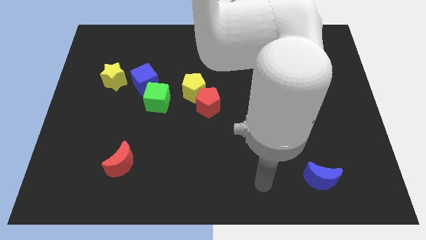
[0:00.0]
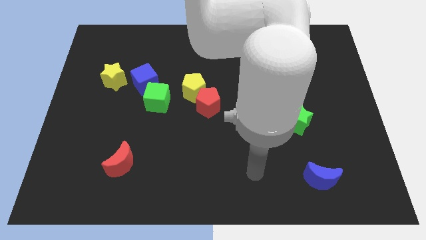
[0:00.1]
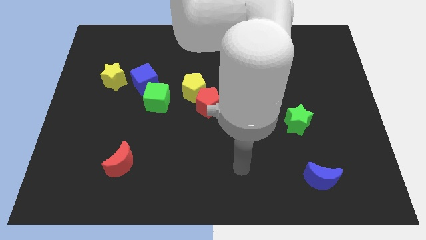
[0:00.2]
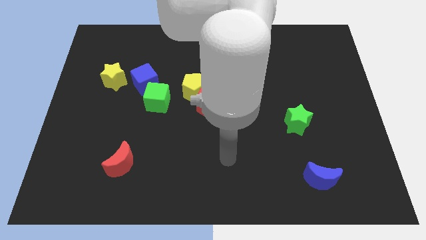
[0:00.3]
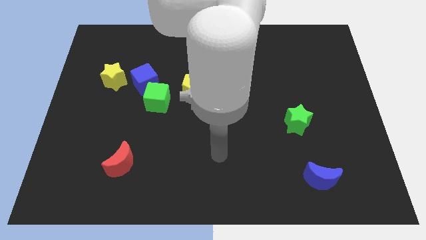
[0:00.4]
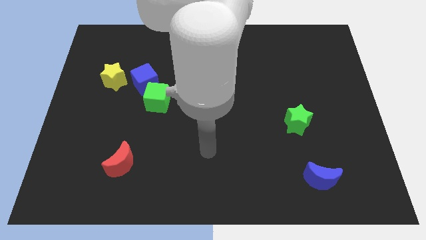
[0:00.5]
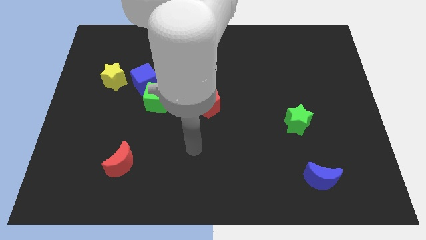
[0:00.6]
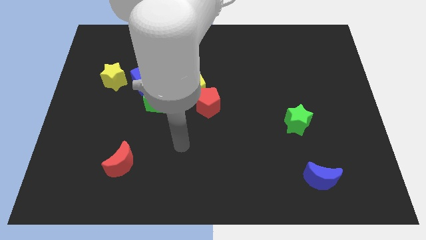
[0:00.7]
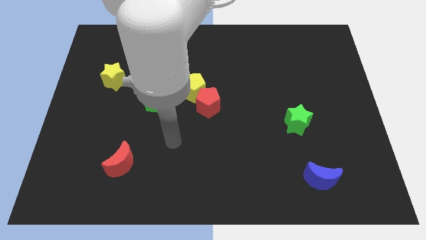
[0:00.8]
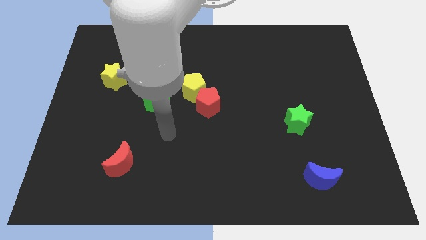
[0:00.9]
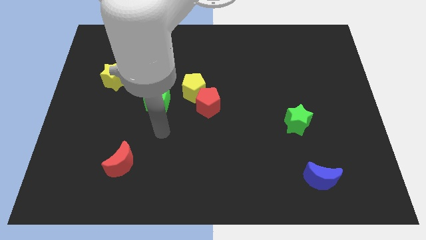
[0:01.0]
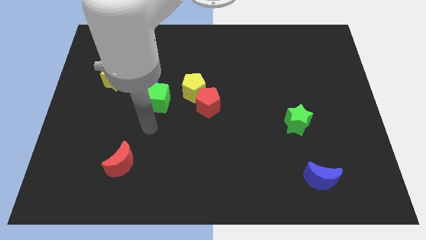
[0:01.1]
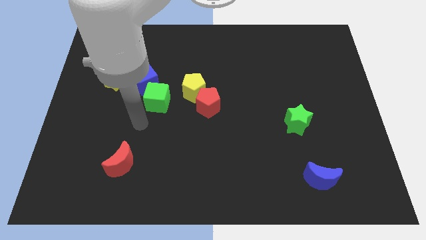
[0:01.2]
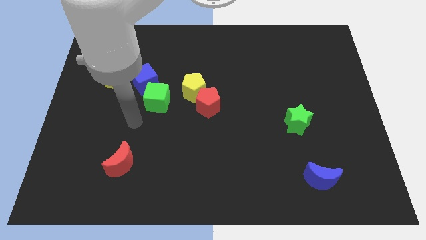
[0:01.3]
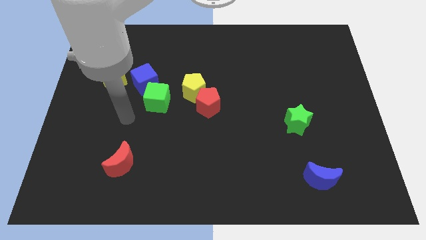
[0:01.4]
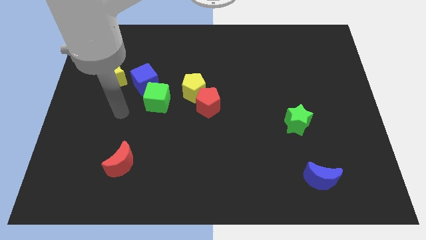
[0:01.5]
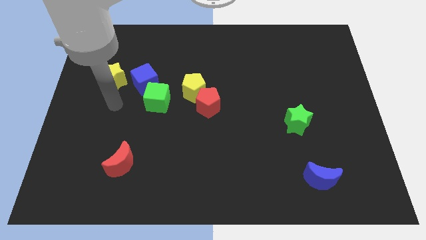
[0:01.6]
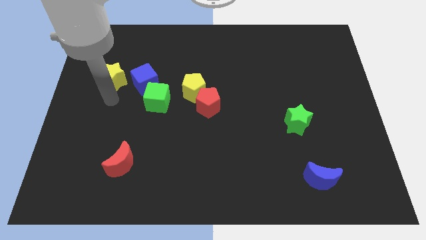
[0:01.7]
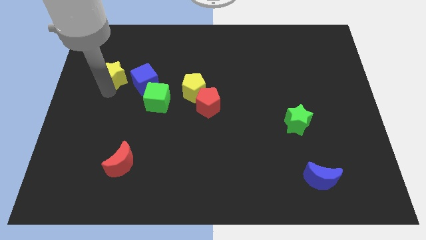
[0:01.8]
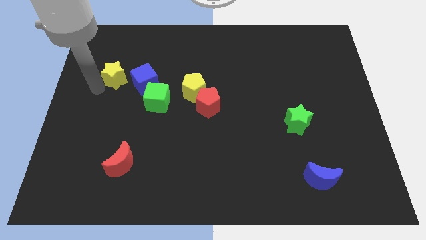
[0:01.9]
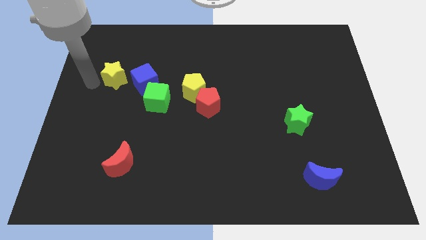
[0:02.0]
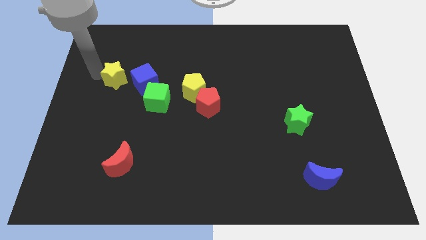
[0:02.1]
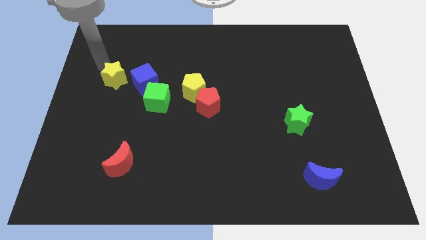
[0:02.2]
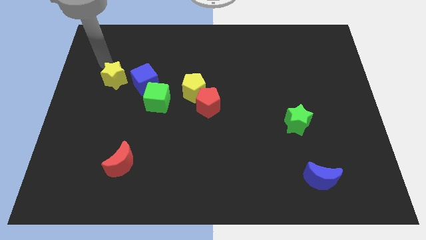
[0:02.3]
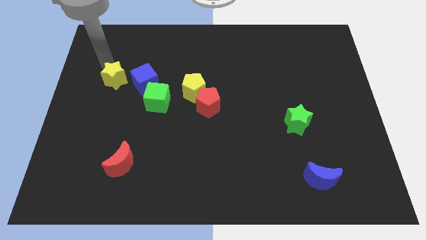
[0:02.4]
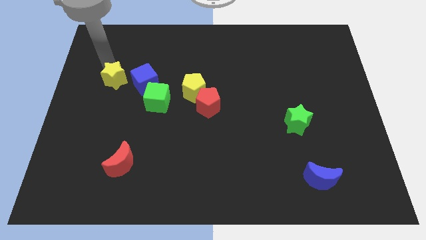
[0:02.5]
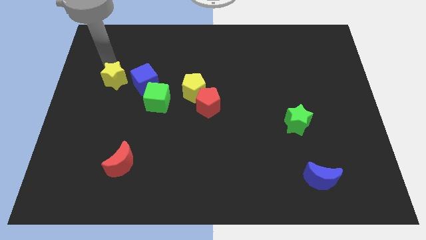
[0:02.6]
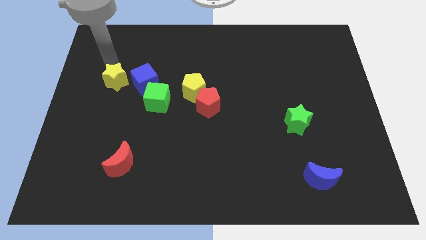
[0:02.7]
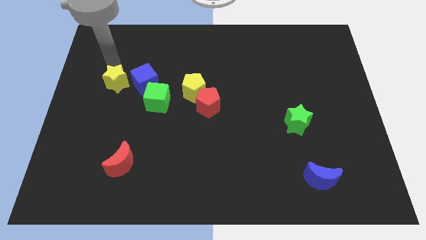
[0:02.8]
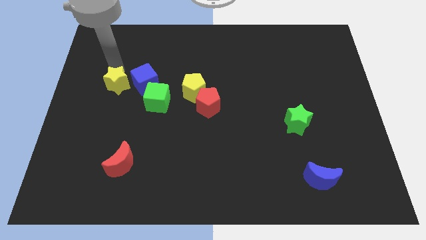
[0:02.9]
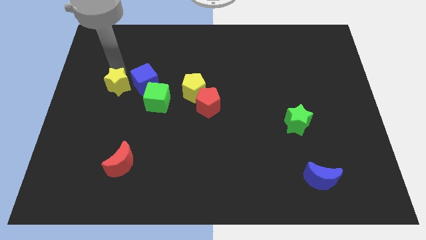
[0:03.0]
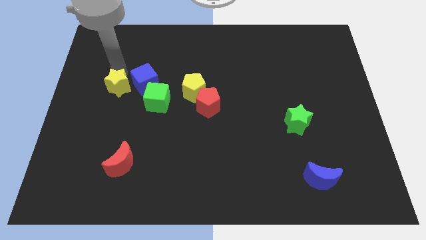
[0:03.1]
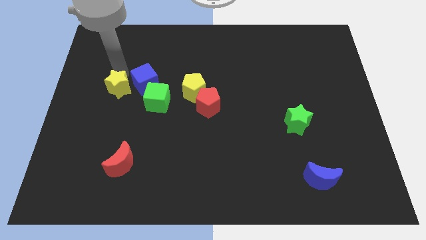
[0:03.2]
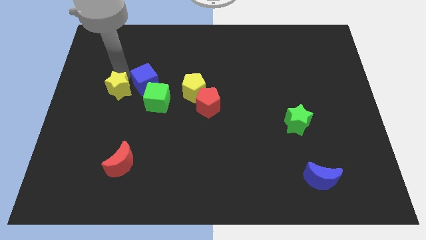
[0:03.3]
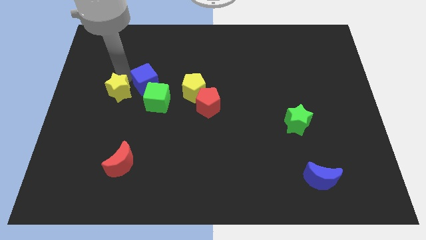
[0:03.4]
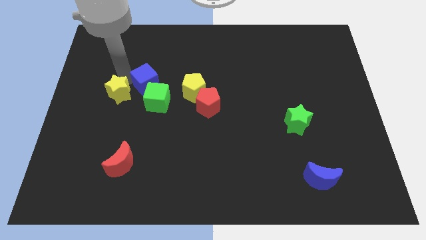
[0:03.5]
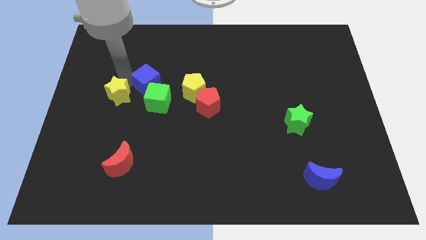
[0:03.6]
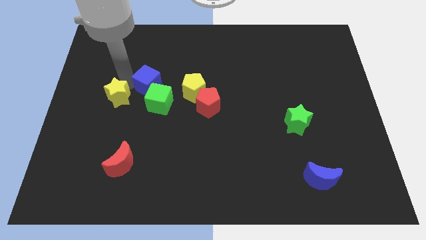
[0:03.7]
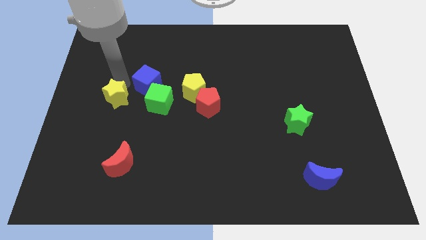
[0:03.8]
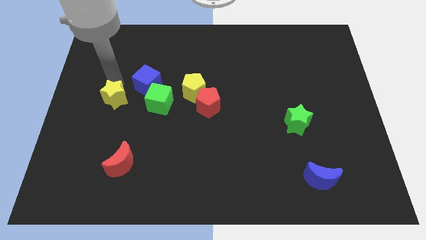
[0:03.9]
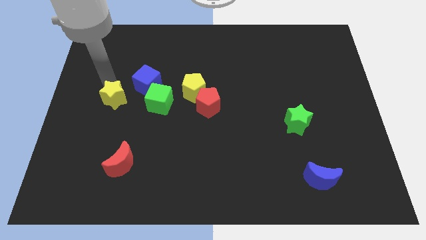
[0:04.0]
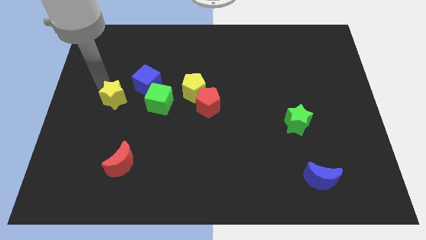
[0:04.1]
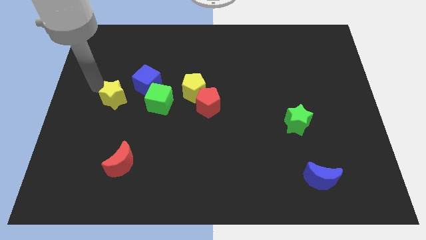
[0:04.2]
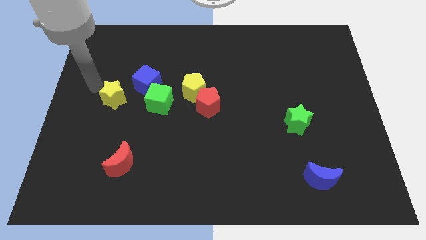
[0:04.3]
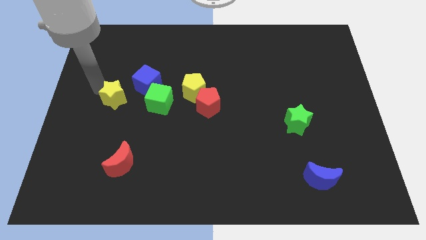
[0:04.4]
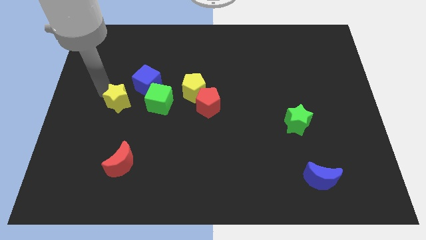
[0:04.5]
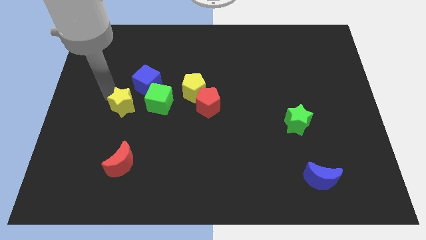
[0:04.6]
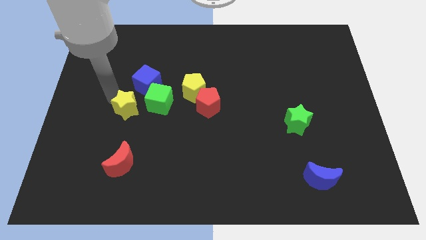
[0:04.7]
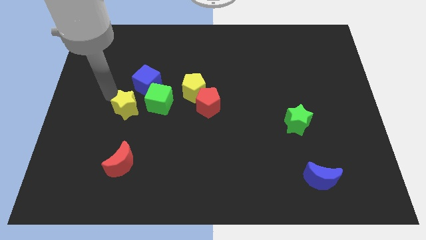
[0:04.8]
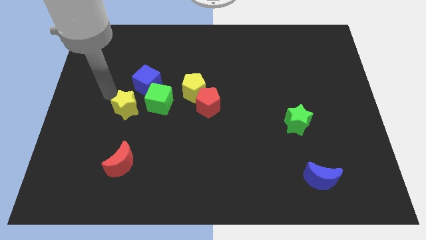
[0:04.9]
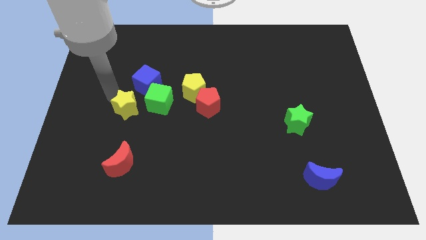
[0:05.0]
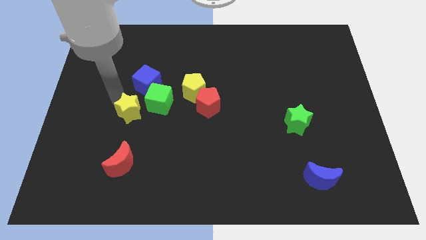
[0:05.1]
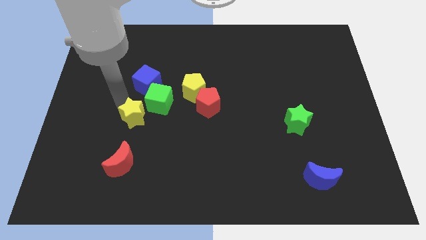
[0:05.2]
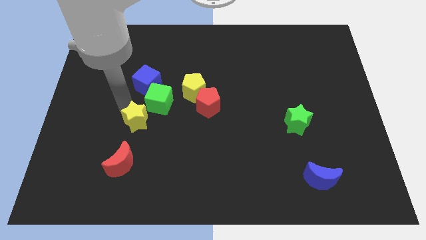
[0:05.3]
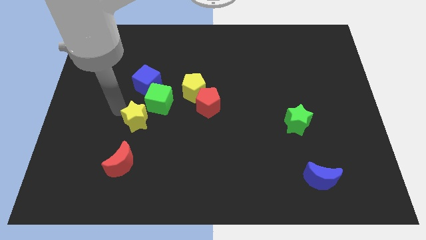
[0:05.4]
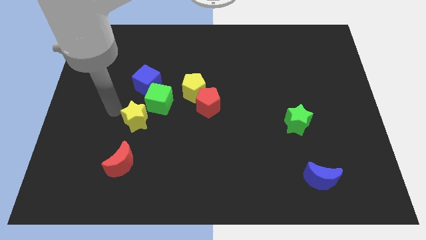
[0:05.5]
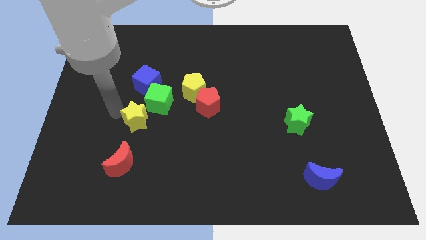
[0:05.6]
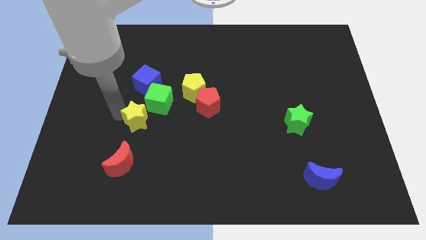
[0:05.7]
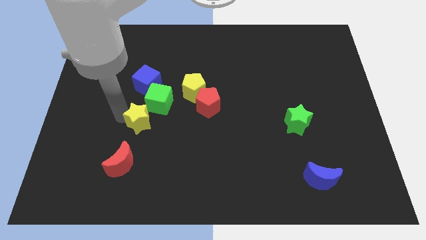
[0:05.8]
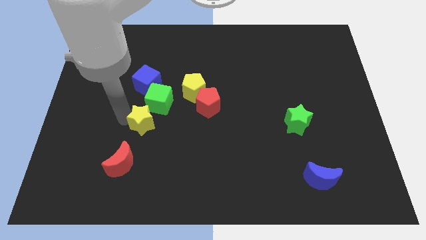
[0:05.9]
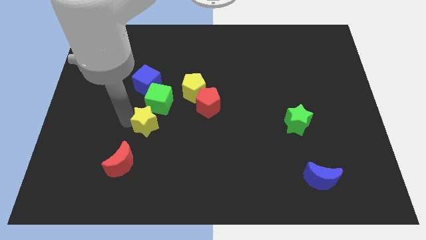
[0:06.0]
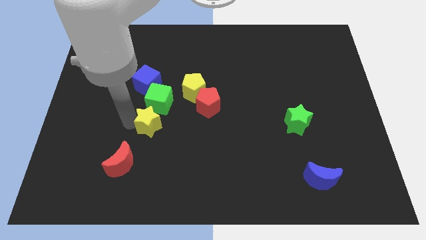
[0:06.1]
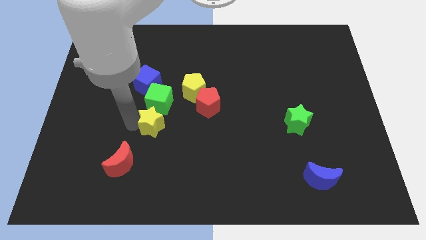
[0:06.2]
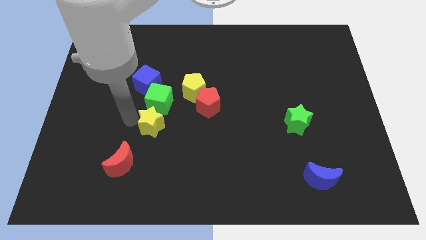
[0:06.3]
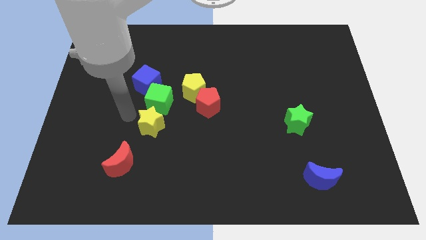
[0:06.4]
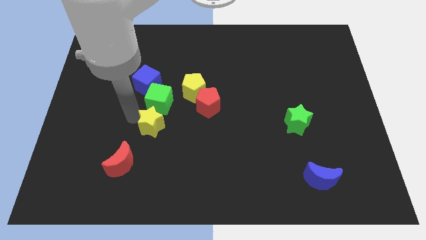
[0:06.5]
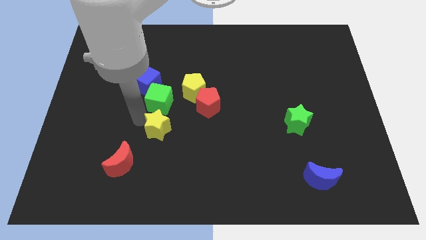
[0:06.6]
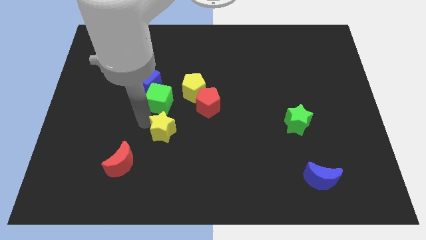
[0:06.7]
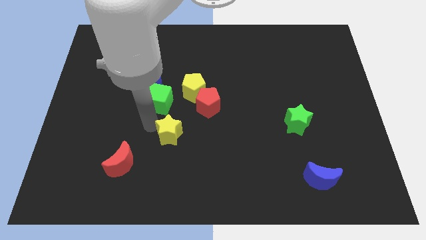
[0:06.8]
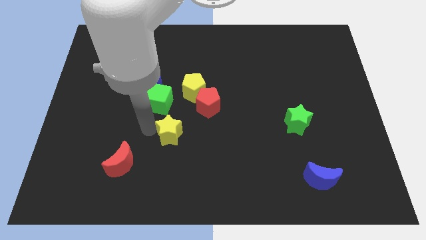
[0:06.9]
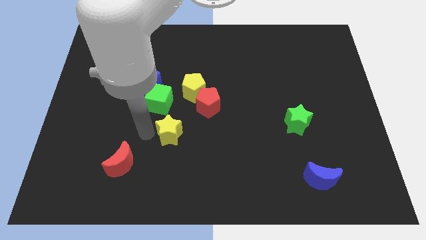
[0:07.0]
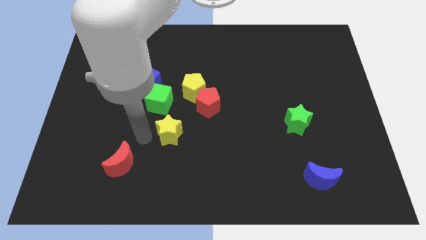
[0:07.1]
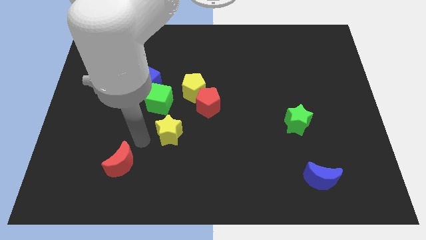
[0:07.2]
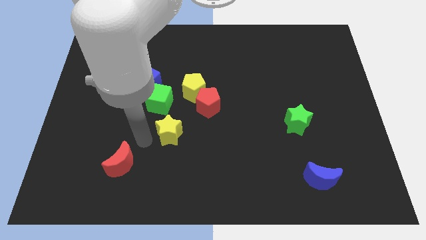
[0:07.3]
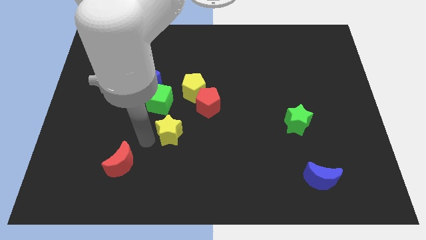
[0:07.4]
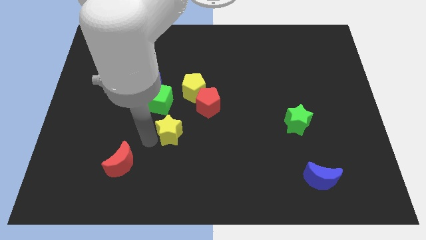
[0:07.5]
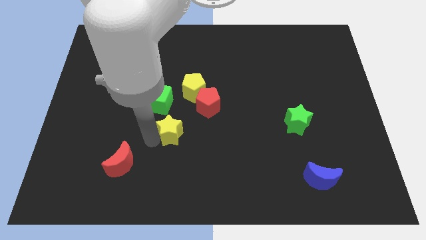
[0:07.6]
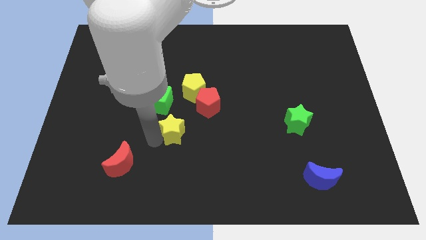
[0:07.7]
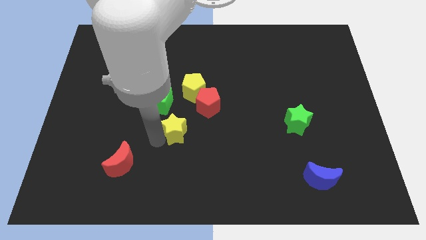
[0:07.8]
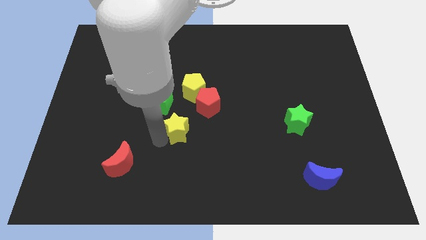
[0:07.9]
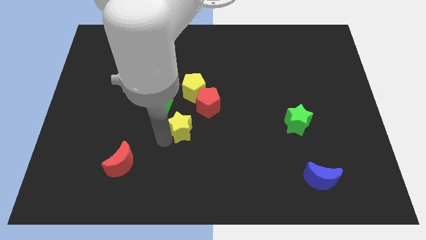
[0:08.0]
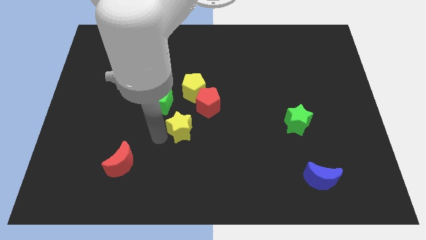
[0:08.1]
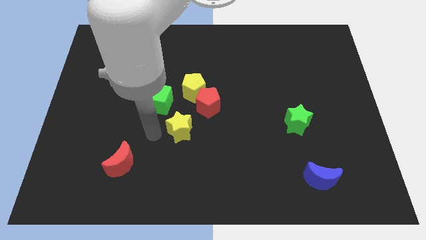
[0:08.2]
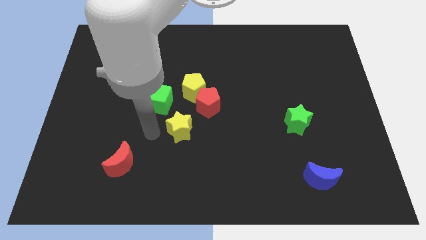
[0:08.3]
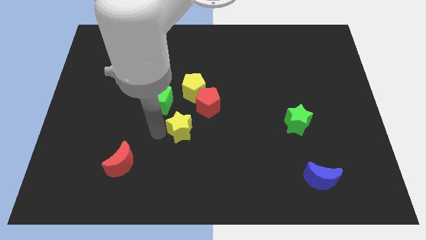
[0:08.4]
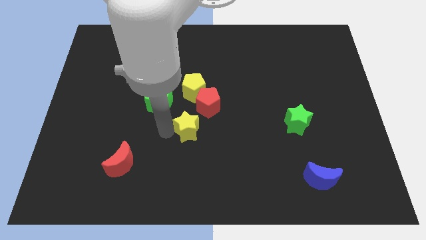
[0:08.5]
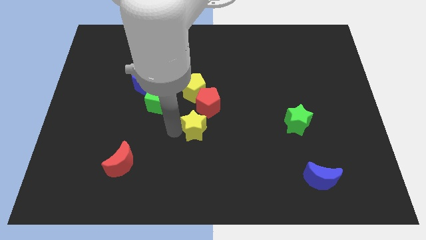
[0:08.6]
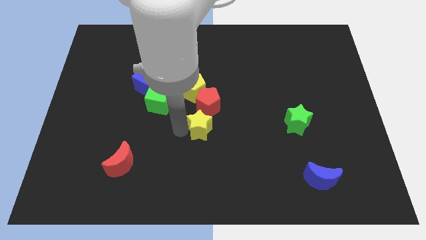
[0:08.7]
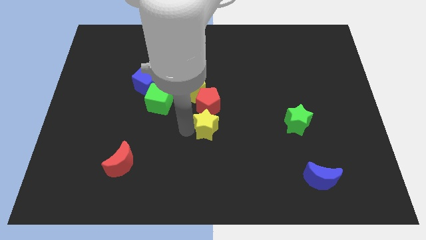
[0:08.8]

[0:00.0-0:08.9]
push the yellow star to the bottom right side of the red pentagon
